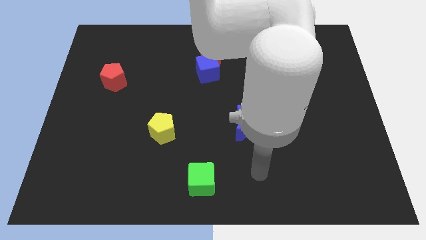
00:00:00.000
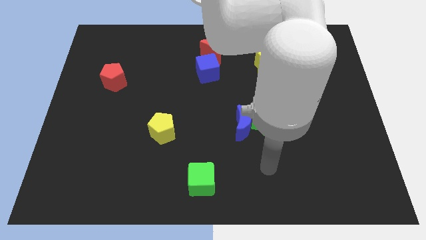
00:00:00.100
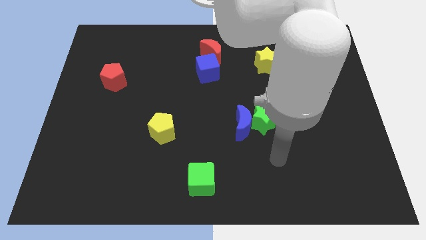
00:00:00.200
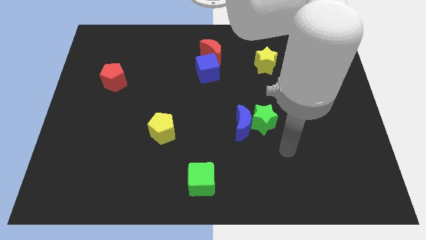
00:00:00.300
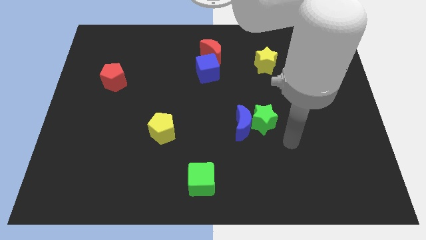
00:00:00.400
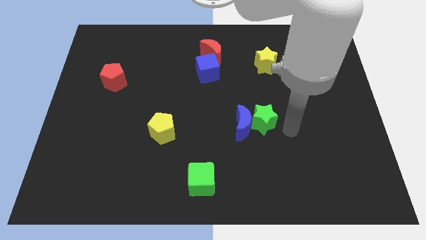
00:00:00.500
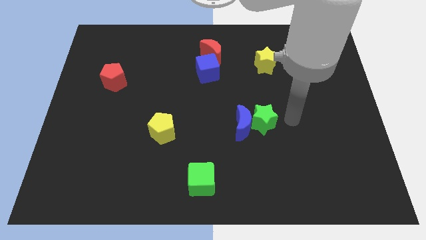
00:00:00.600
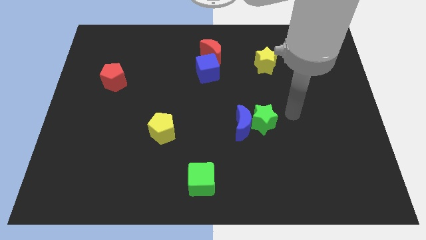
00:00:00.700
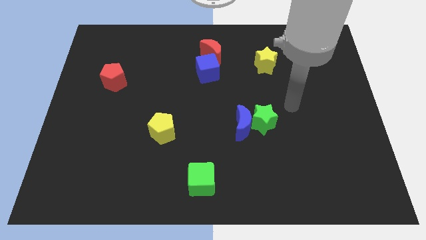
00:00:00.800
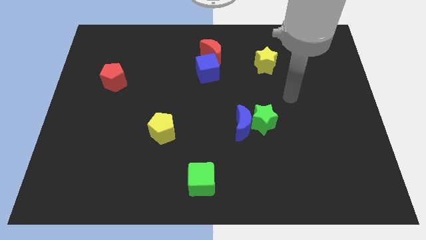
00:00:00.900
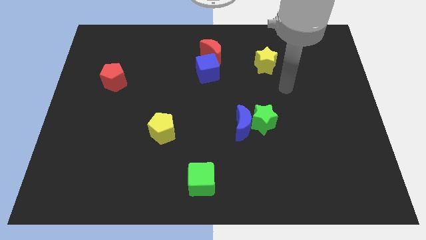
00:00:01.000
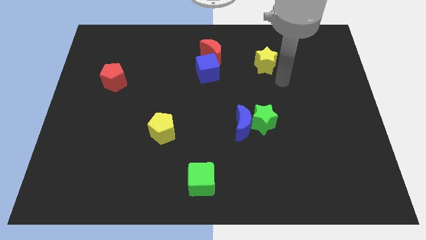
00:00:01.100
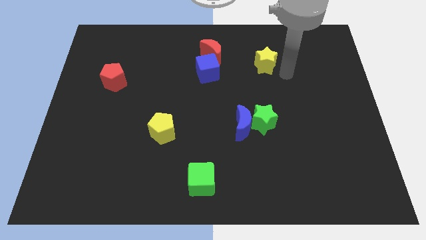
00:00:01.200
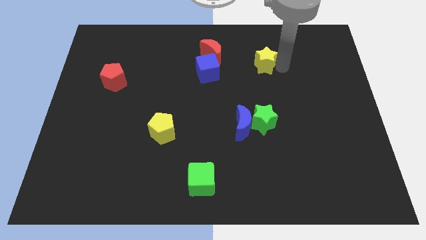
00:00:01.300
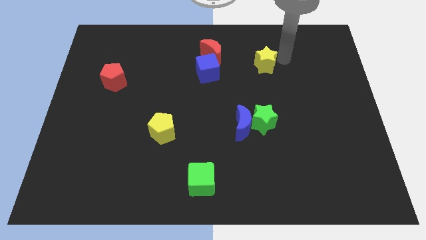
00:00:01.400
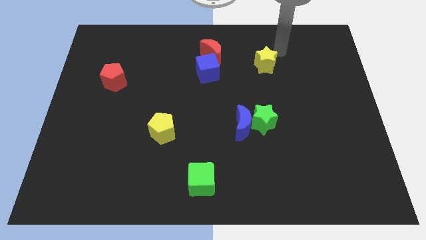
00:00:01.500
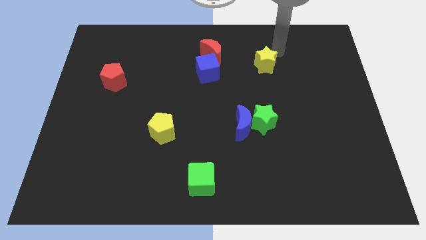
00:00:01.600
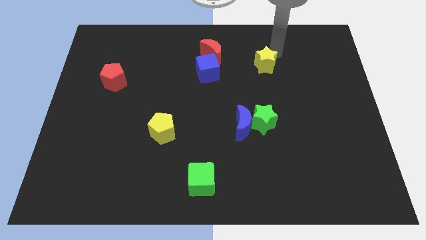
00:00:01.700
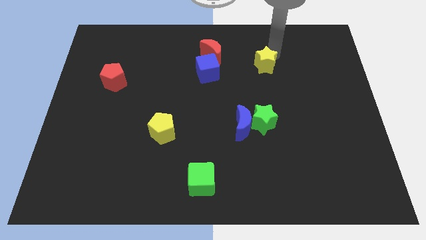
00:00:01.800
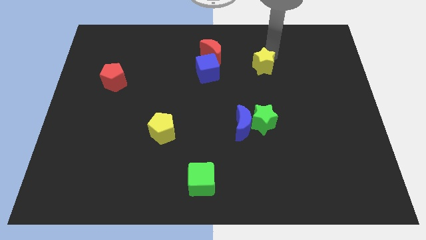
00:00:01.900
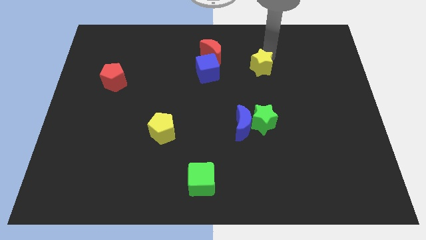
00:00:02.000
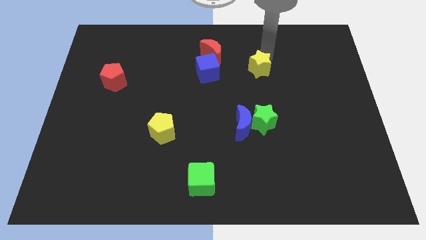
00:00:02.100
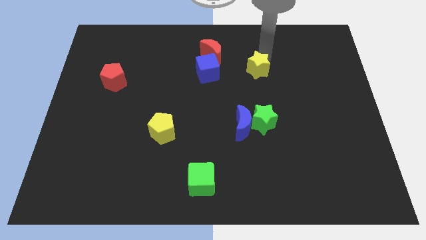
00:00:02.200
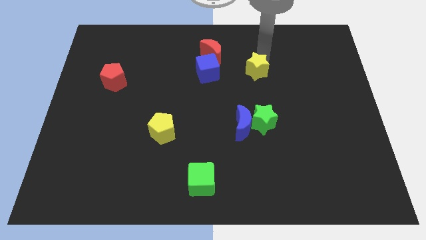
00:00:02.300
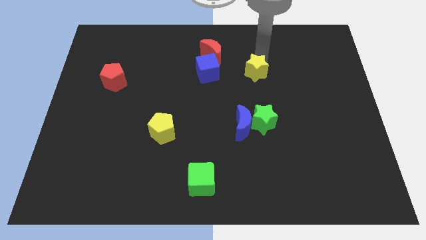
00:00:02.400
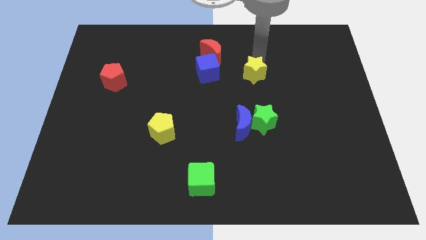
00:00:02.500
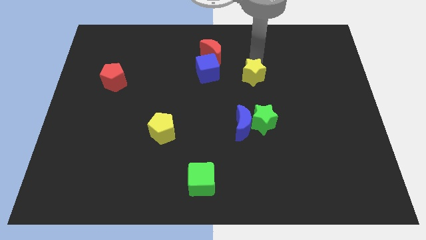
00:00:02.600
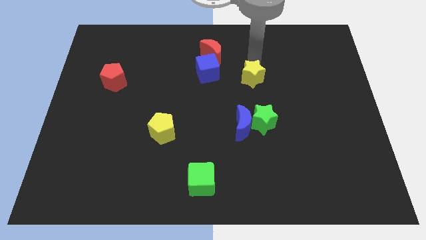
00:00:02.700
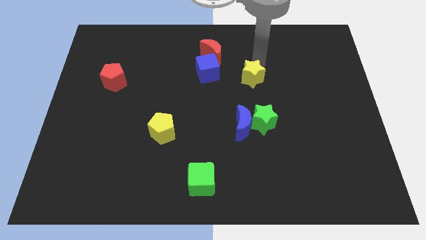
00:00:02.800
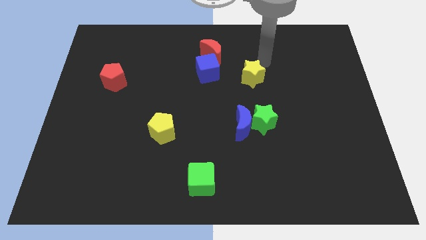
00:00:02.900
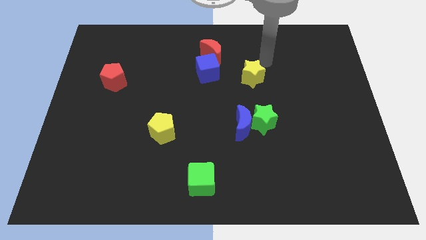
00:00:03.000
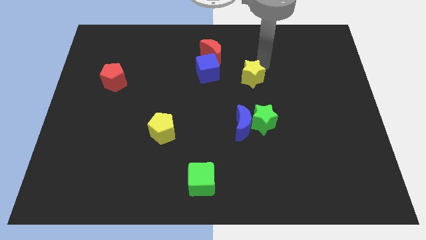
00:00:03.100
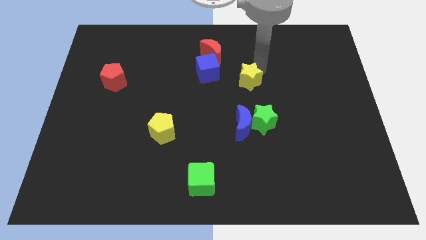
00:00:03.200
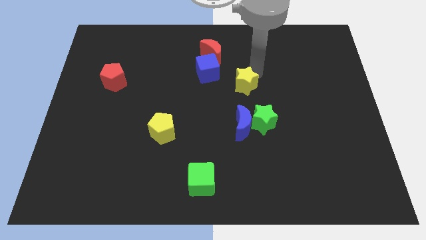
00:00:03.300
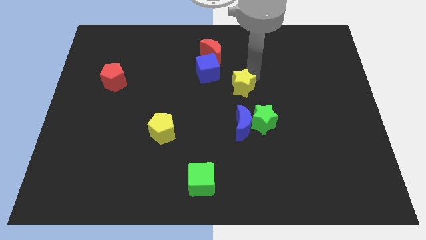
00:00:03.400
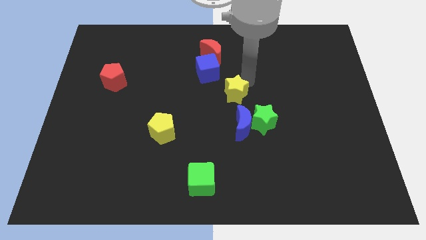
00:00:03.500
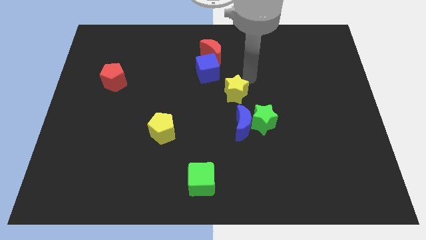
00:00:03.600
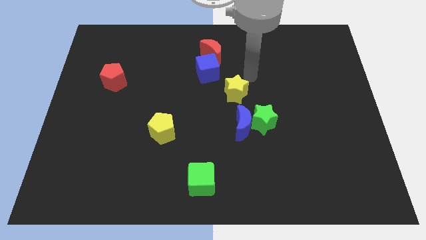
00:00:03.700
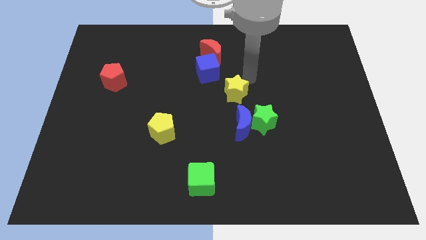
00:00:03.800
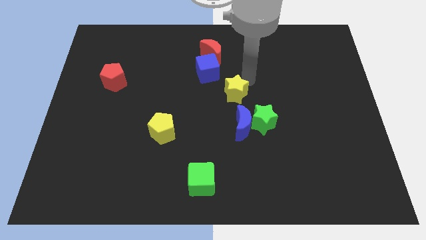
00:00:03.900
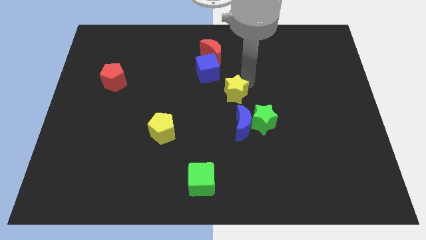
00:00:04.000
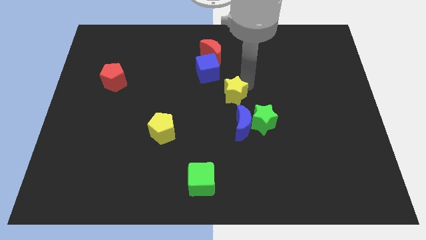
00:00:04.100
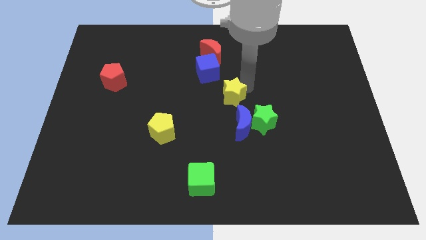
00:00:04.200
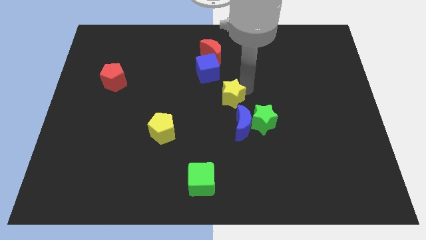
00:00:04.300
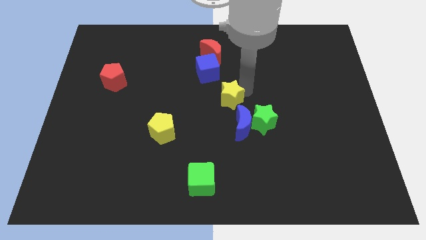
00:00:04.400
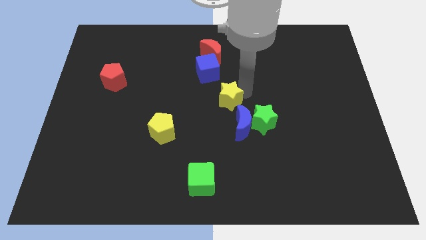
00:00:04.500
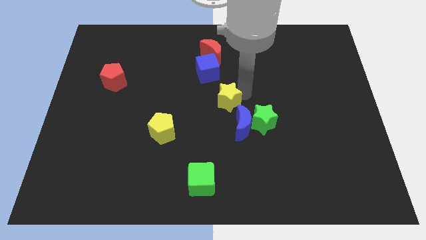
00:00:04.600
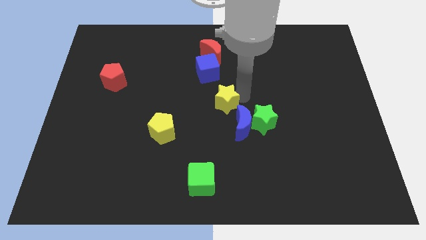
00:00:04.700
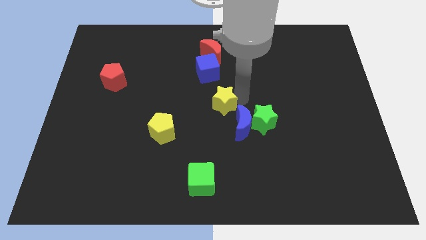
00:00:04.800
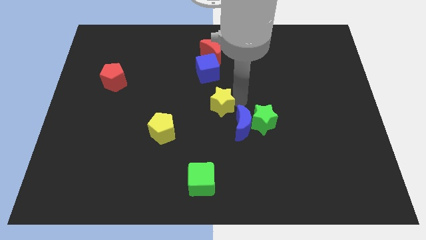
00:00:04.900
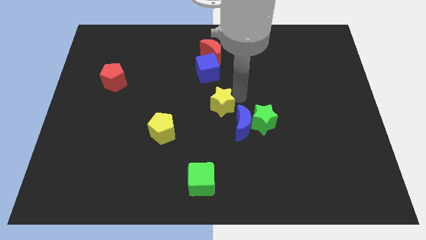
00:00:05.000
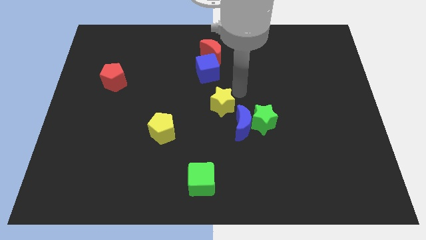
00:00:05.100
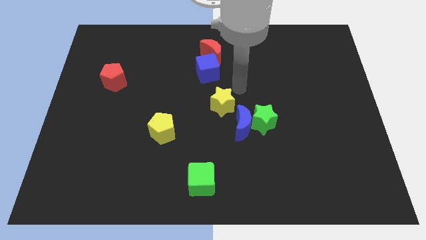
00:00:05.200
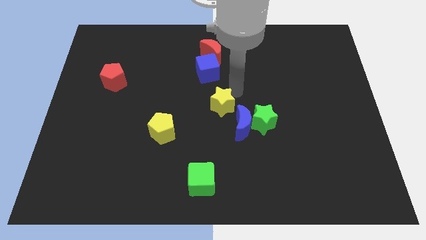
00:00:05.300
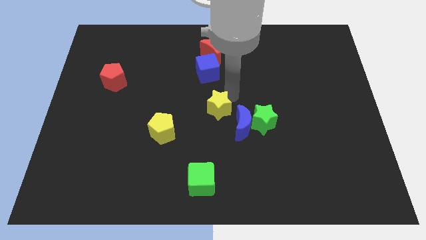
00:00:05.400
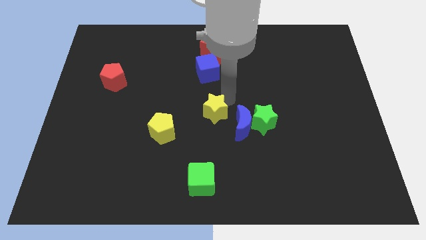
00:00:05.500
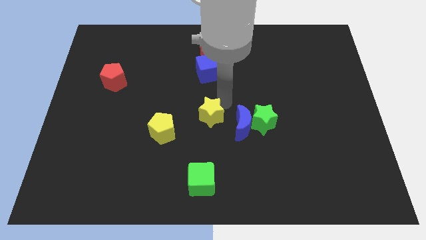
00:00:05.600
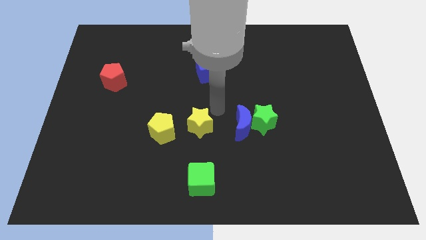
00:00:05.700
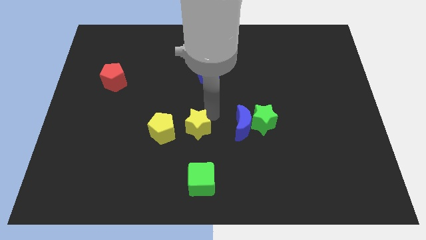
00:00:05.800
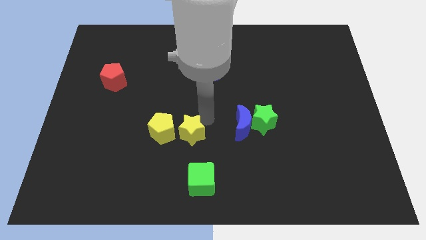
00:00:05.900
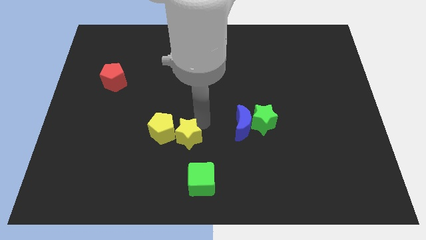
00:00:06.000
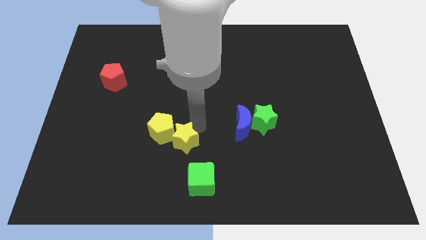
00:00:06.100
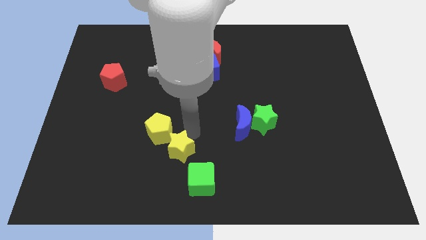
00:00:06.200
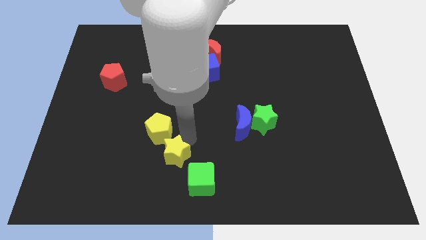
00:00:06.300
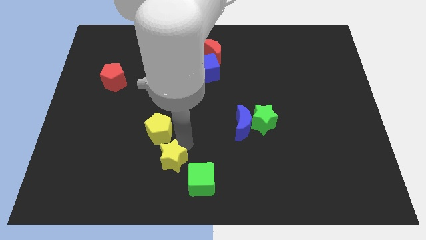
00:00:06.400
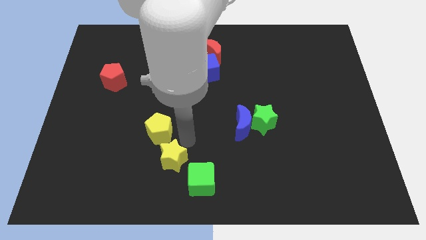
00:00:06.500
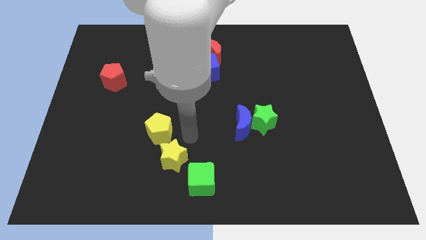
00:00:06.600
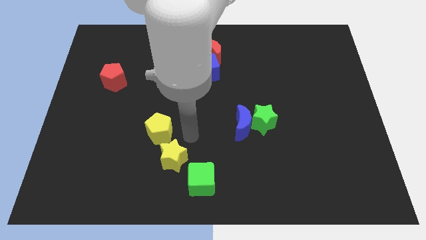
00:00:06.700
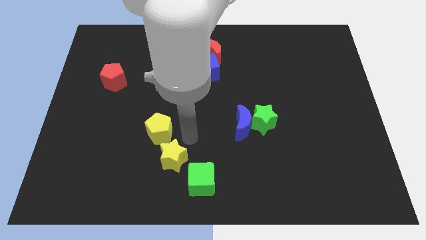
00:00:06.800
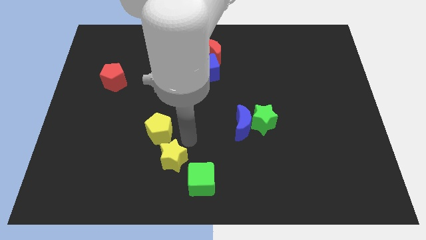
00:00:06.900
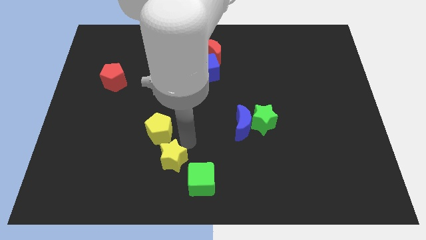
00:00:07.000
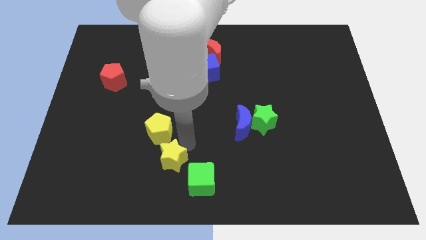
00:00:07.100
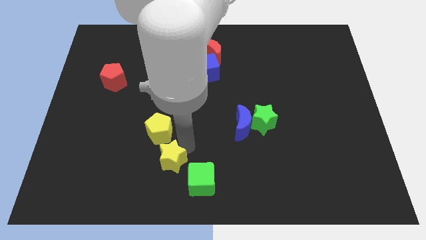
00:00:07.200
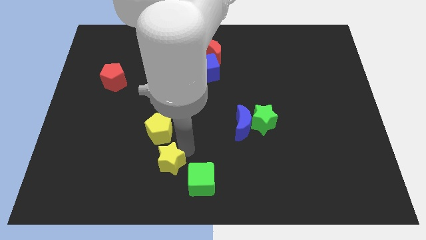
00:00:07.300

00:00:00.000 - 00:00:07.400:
move the yellow star left of the green cube

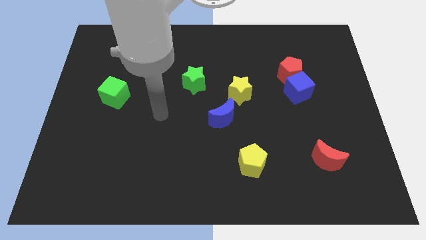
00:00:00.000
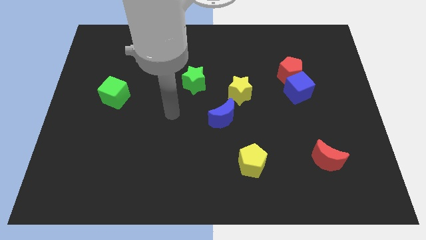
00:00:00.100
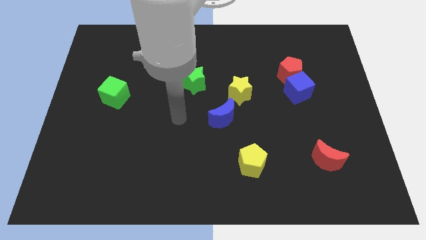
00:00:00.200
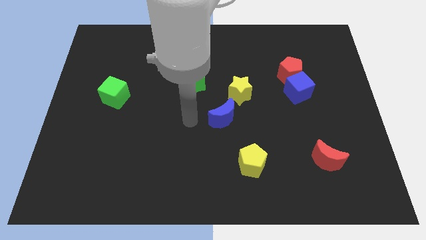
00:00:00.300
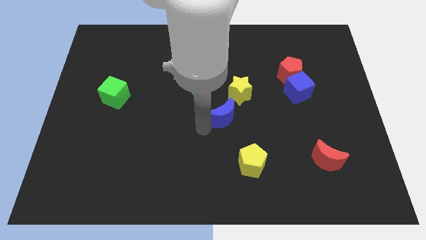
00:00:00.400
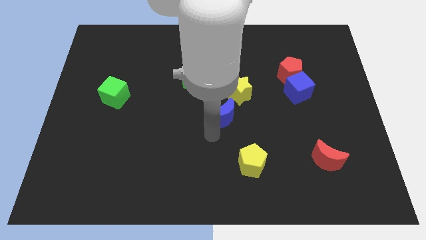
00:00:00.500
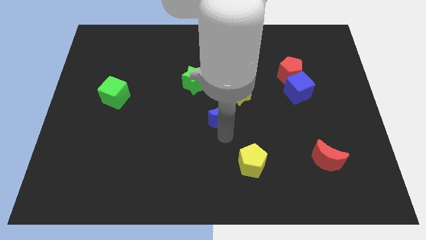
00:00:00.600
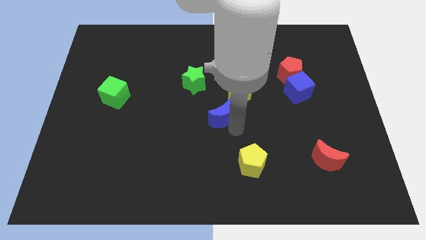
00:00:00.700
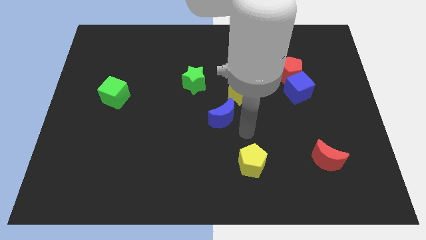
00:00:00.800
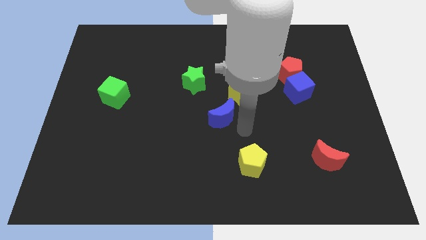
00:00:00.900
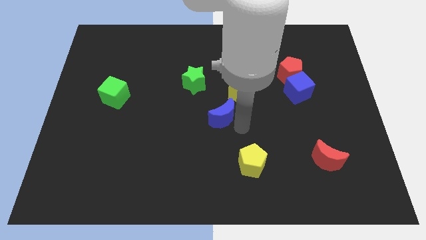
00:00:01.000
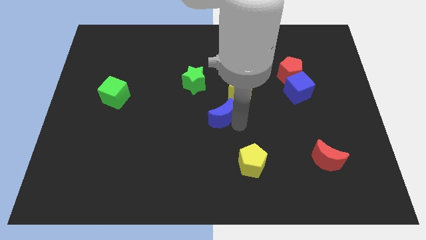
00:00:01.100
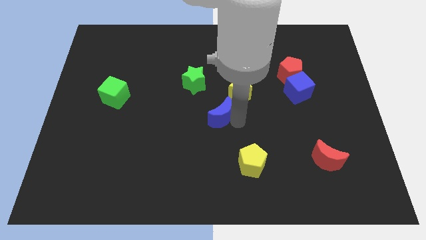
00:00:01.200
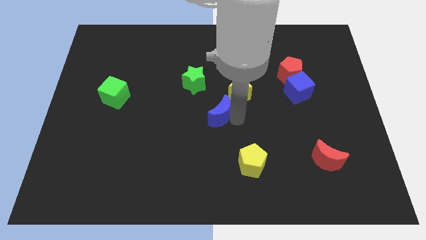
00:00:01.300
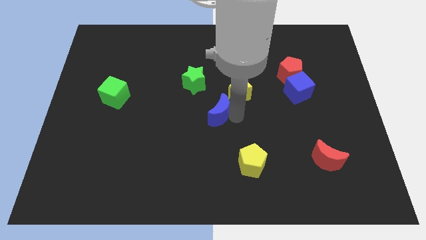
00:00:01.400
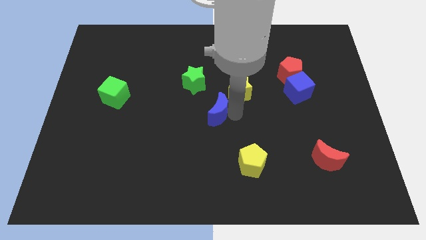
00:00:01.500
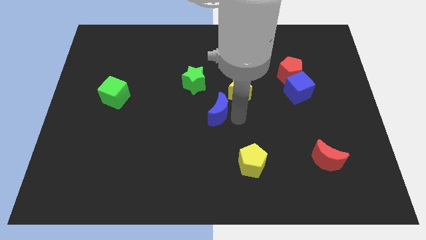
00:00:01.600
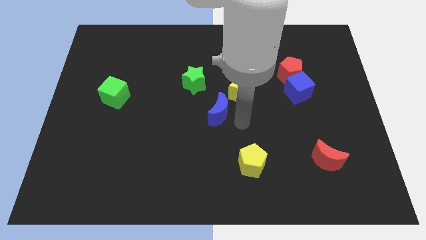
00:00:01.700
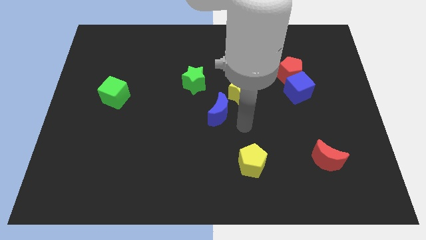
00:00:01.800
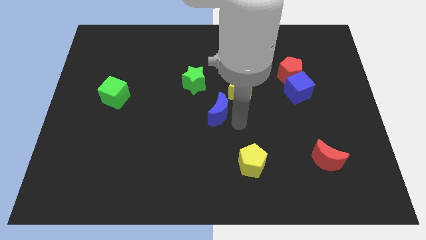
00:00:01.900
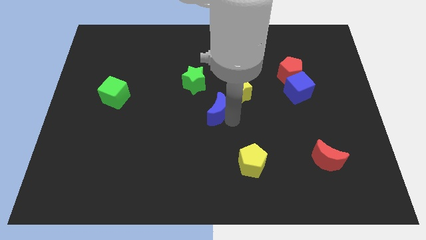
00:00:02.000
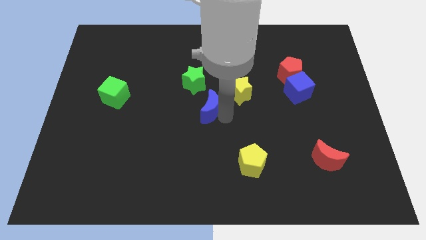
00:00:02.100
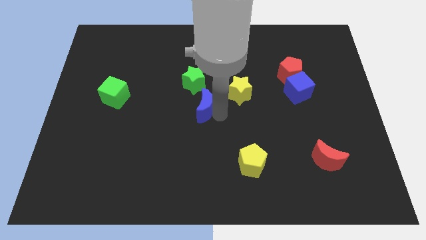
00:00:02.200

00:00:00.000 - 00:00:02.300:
push the blue moon just left of the yellow star
